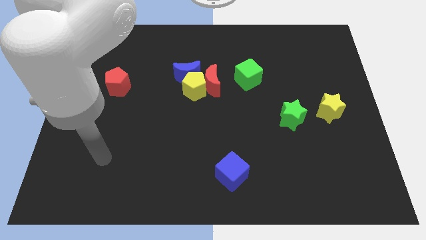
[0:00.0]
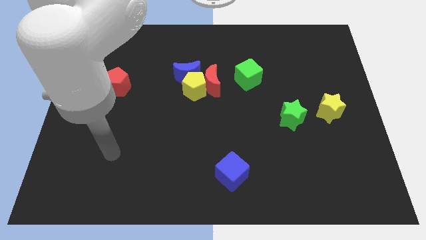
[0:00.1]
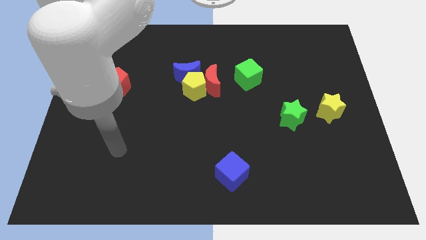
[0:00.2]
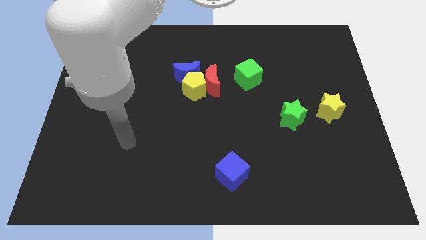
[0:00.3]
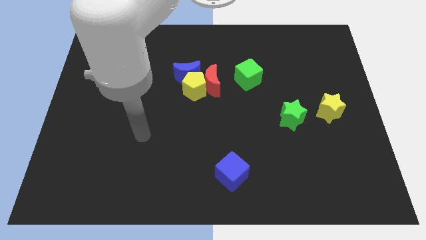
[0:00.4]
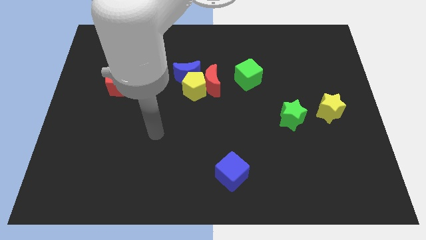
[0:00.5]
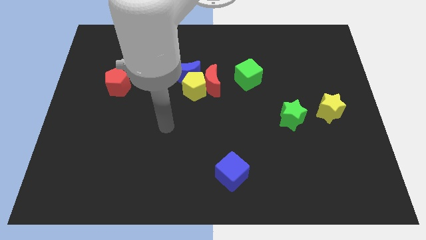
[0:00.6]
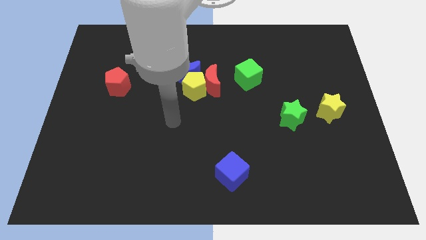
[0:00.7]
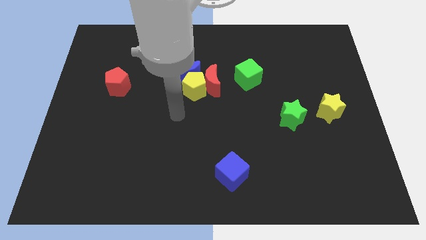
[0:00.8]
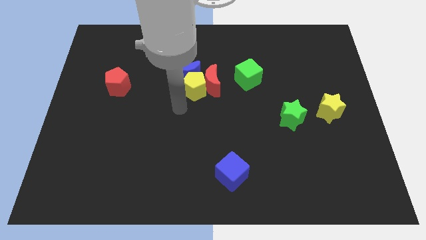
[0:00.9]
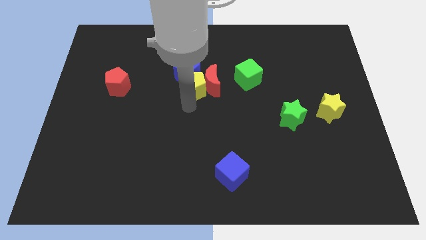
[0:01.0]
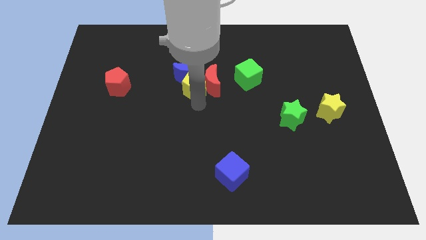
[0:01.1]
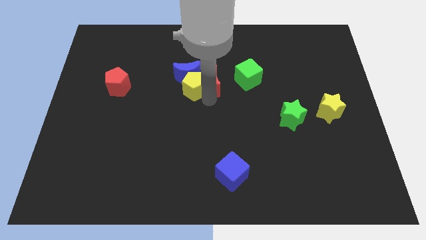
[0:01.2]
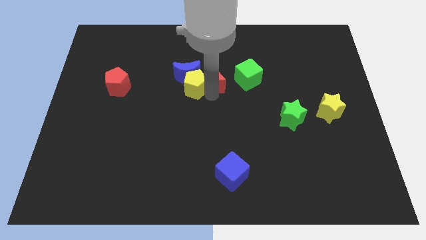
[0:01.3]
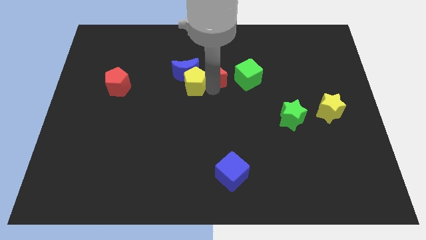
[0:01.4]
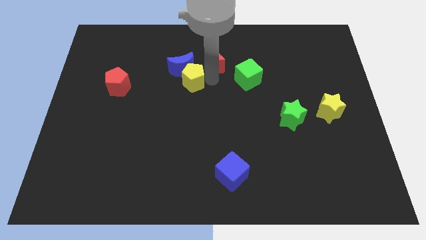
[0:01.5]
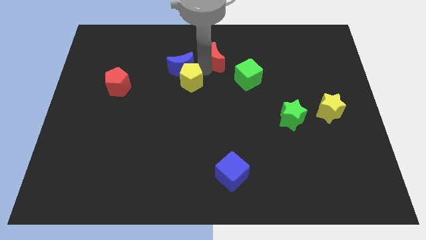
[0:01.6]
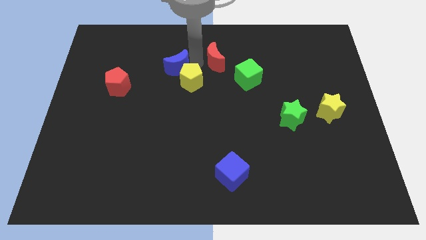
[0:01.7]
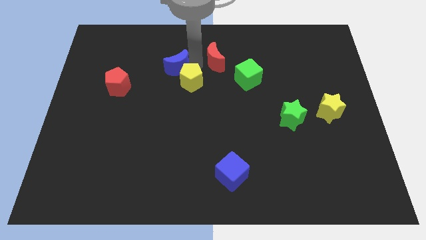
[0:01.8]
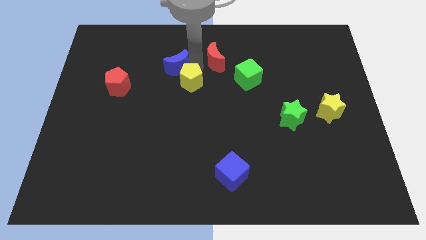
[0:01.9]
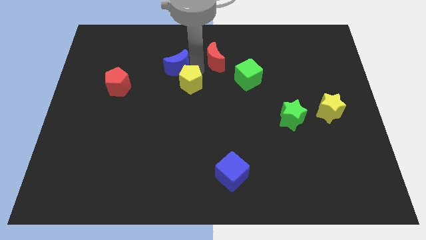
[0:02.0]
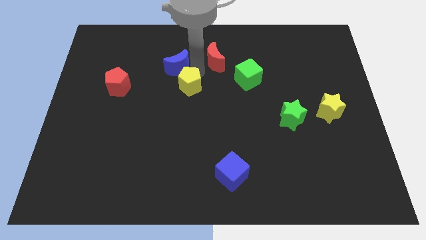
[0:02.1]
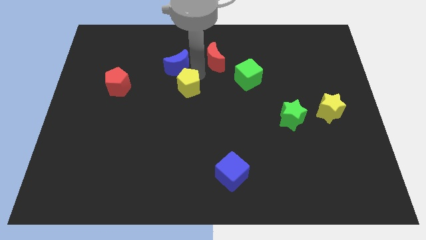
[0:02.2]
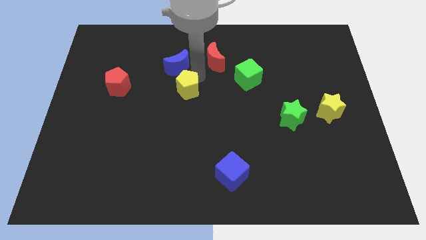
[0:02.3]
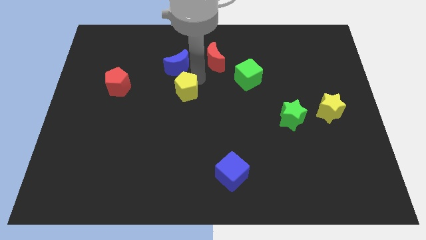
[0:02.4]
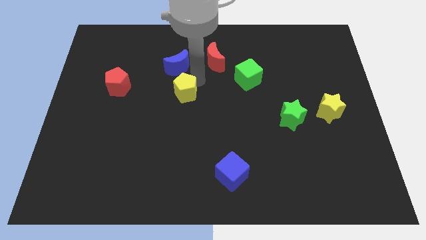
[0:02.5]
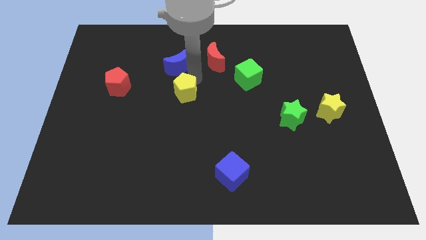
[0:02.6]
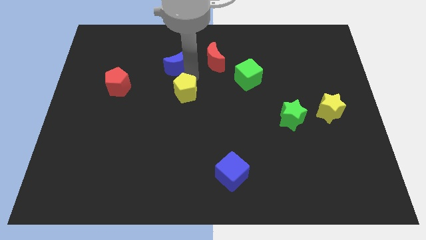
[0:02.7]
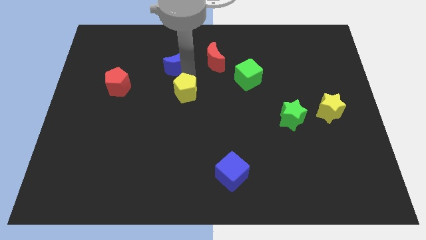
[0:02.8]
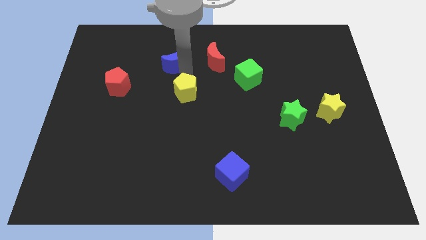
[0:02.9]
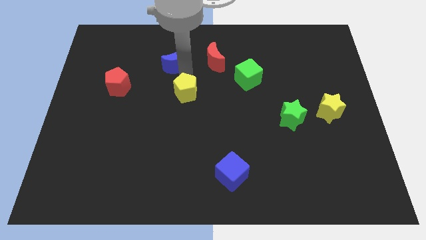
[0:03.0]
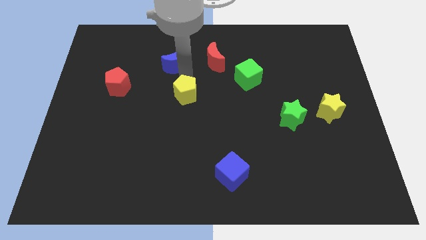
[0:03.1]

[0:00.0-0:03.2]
move the yellow pentagon away from the red moon and blue moon

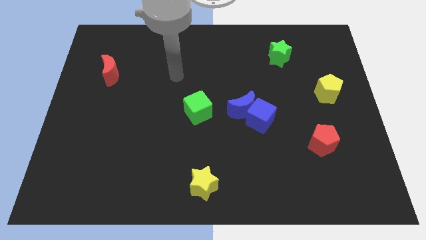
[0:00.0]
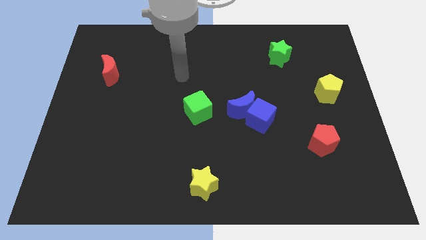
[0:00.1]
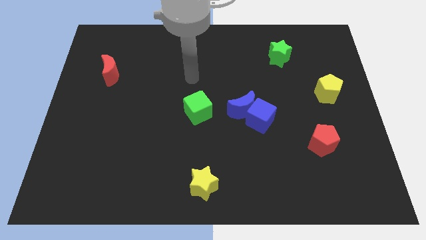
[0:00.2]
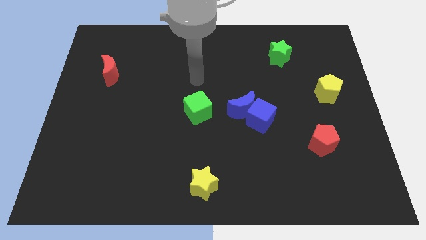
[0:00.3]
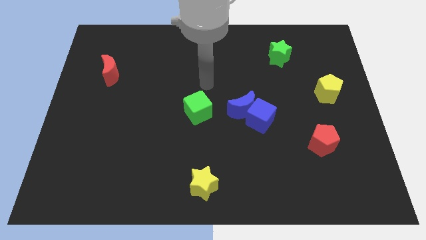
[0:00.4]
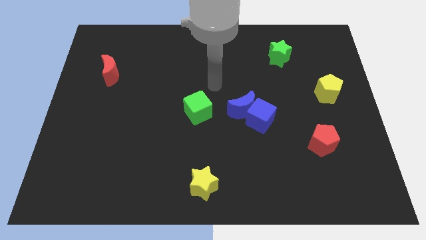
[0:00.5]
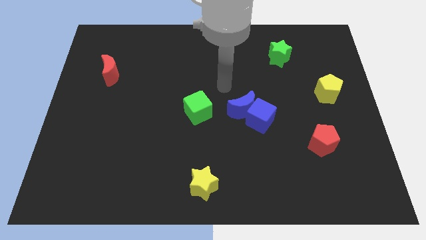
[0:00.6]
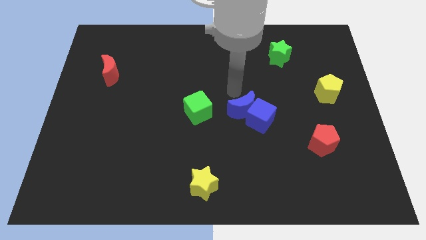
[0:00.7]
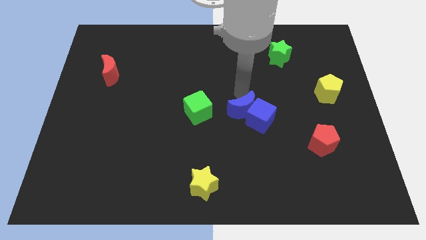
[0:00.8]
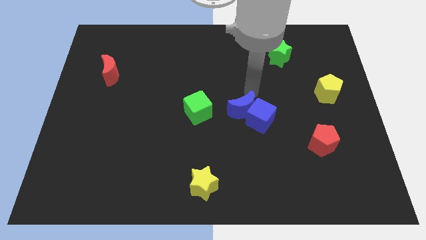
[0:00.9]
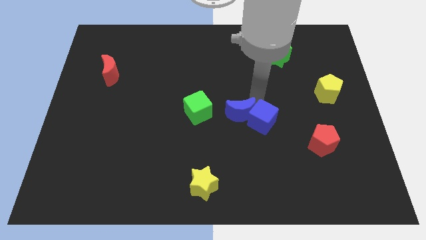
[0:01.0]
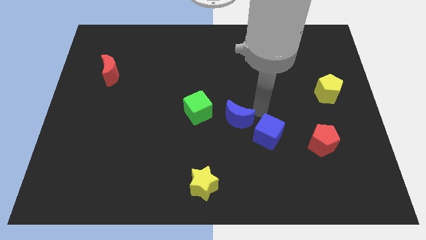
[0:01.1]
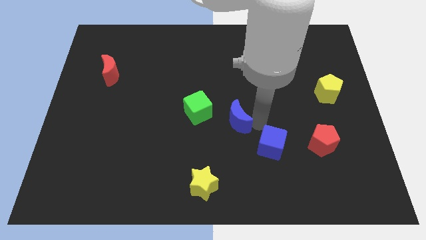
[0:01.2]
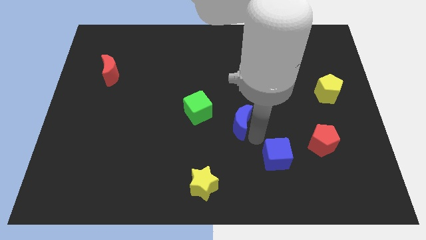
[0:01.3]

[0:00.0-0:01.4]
move the blue moon away from the blue cube

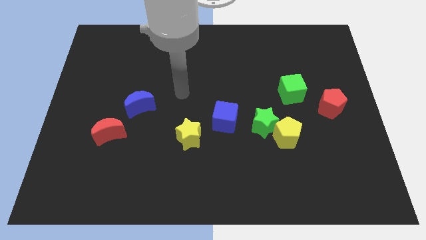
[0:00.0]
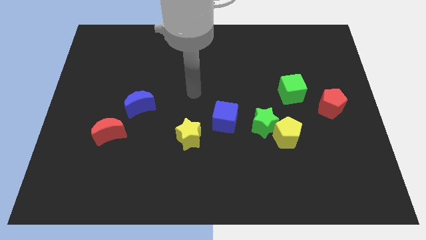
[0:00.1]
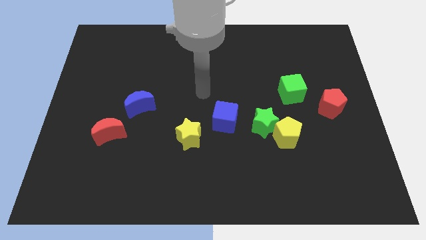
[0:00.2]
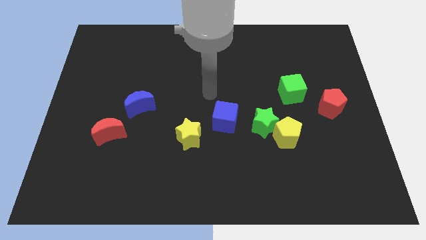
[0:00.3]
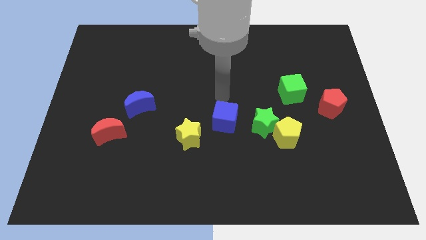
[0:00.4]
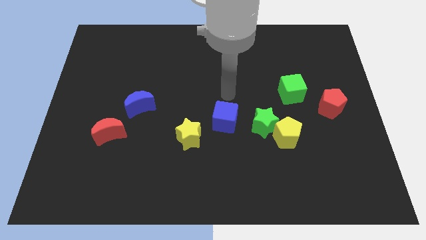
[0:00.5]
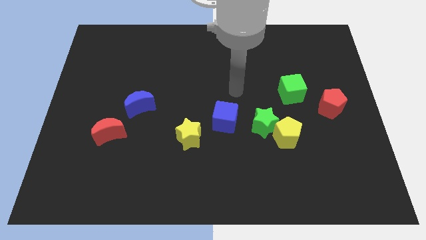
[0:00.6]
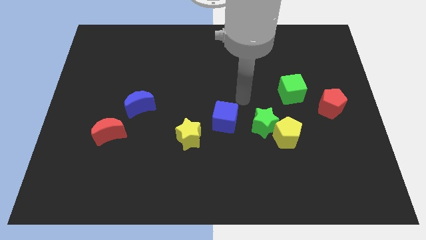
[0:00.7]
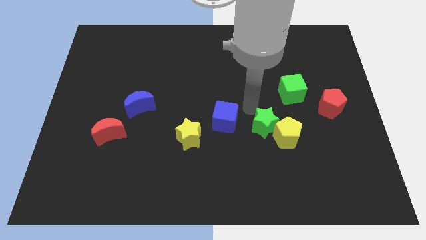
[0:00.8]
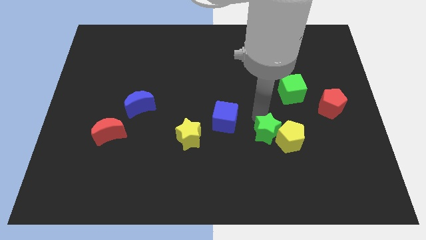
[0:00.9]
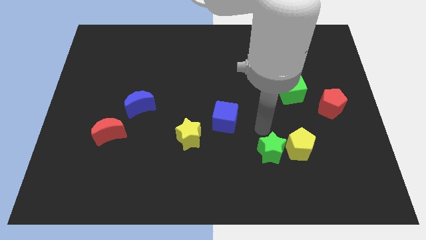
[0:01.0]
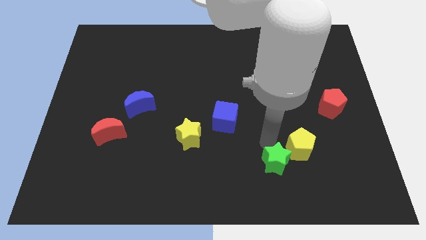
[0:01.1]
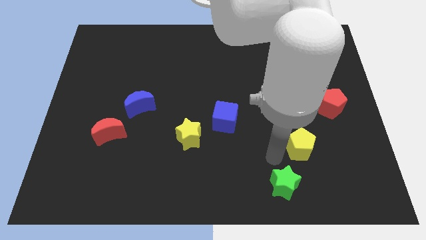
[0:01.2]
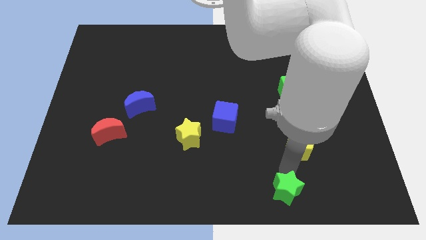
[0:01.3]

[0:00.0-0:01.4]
pull the yellow pentagon apart from the green star

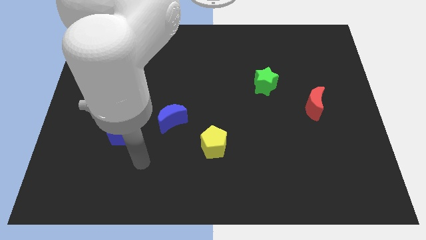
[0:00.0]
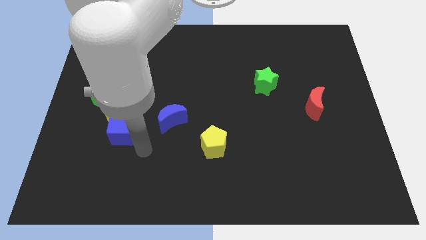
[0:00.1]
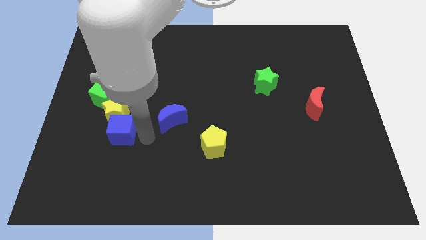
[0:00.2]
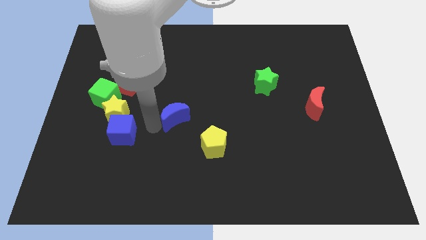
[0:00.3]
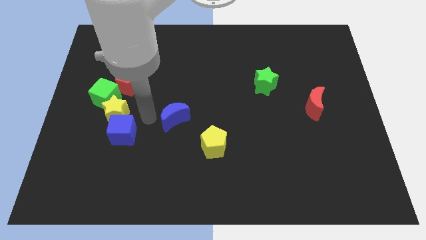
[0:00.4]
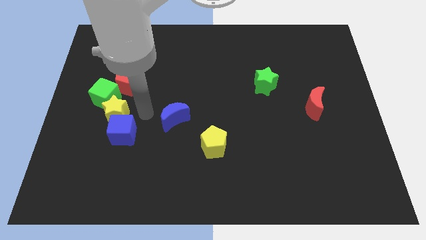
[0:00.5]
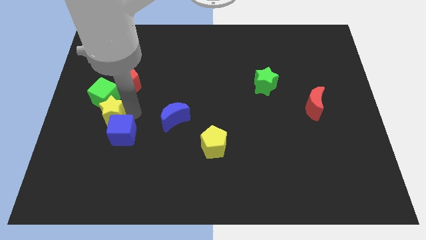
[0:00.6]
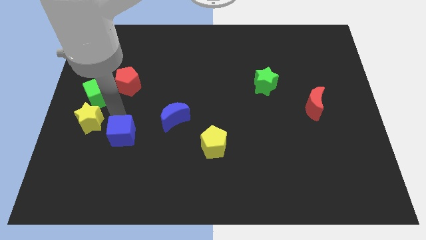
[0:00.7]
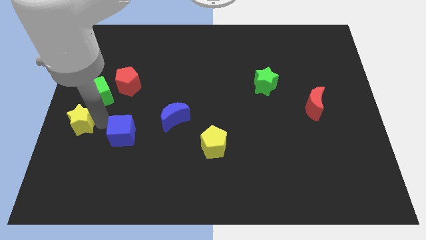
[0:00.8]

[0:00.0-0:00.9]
separate the blue cube from the yellow star

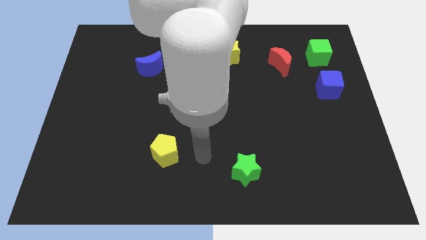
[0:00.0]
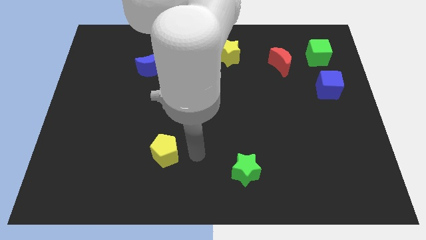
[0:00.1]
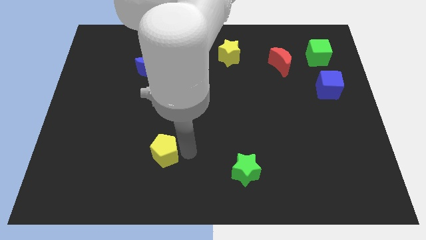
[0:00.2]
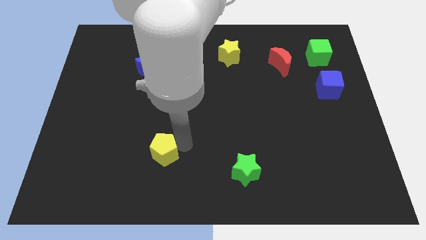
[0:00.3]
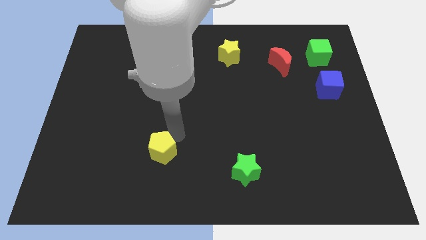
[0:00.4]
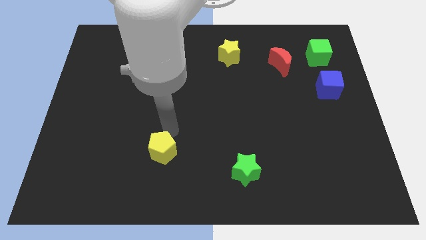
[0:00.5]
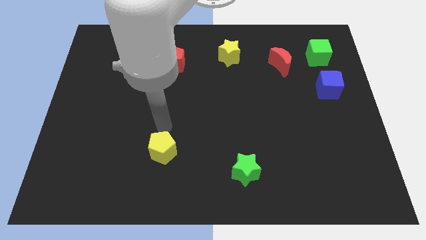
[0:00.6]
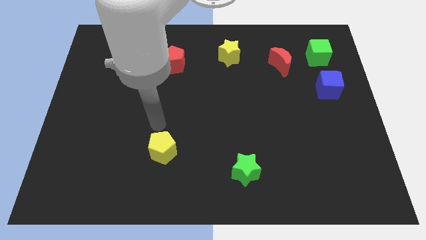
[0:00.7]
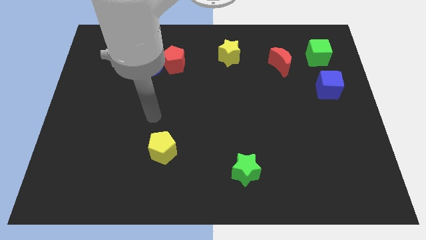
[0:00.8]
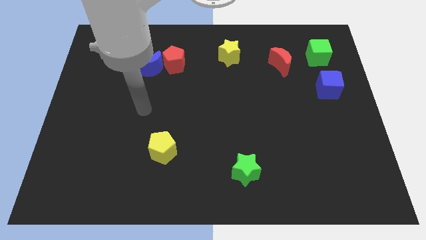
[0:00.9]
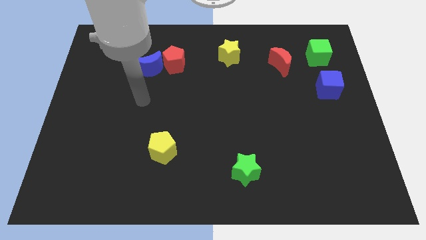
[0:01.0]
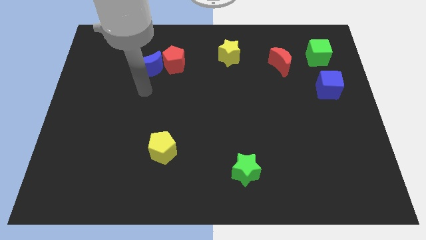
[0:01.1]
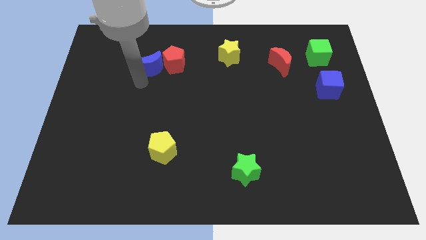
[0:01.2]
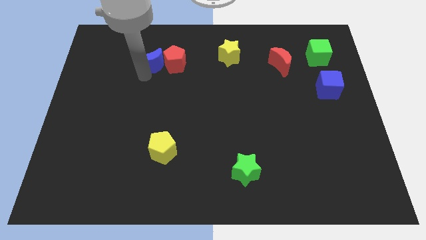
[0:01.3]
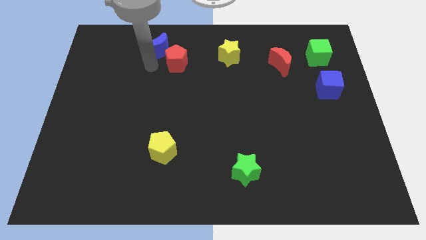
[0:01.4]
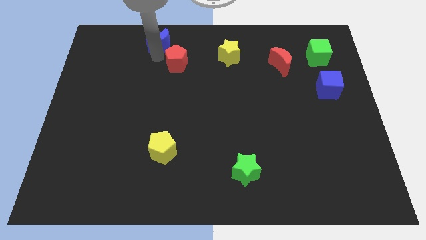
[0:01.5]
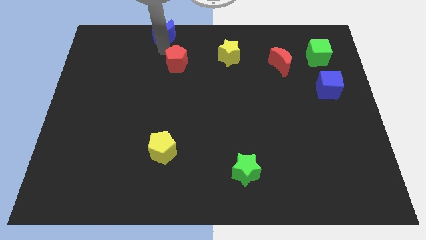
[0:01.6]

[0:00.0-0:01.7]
pull the red pentagon apart from the blue moon

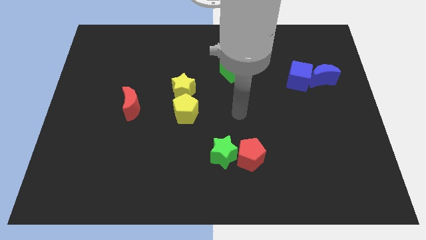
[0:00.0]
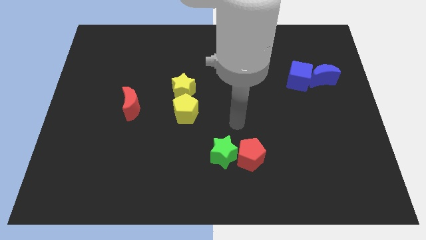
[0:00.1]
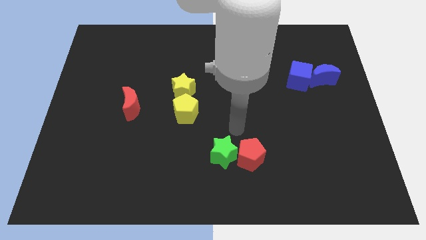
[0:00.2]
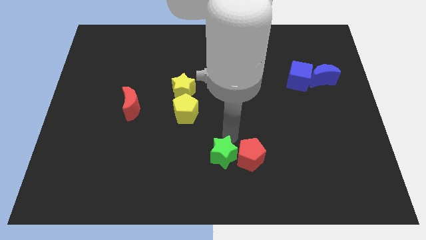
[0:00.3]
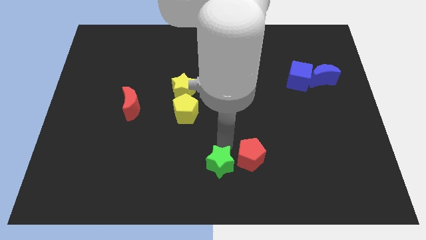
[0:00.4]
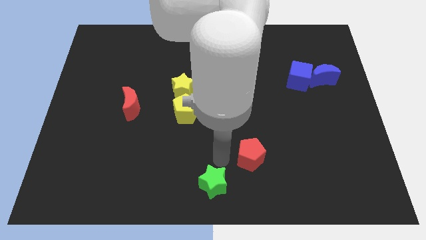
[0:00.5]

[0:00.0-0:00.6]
move the red pentagon away from the green star
